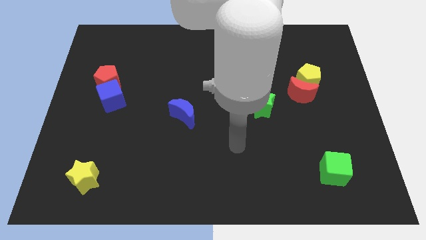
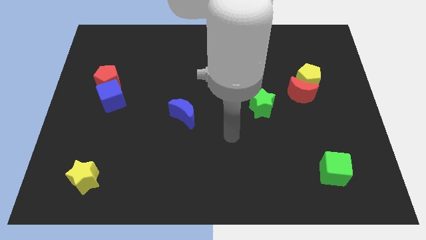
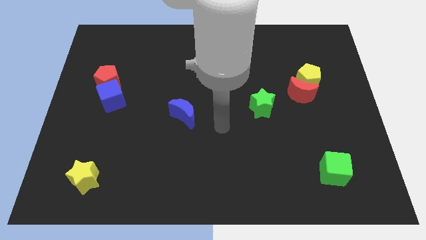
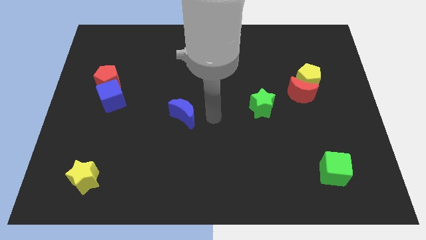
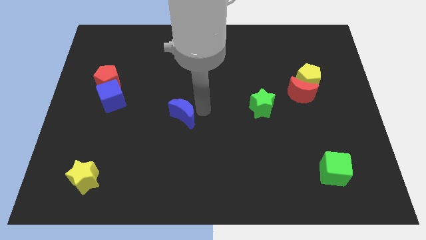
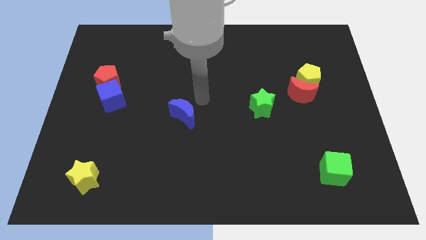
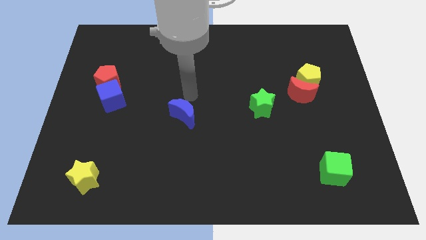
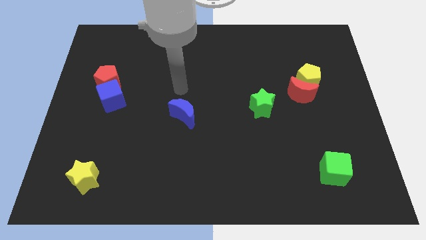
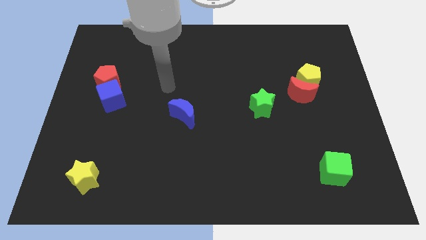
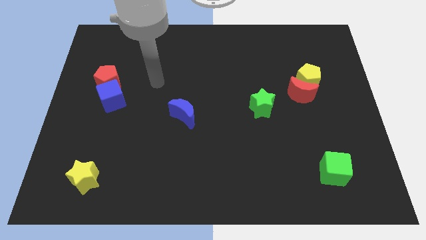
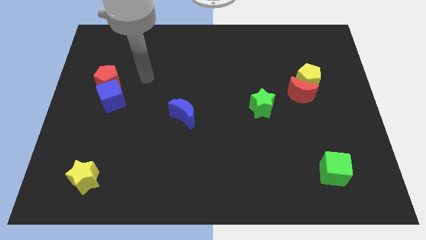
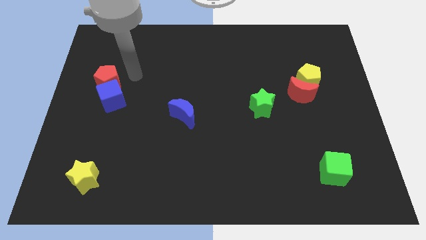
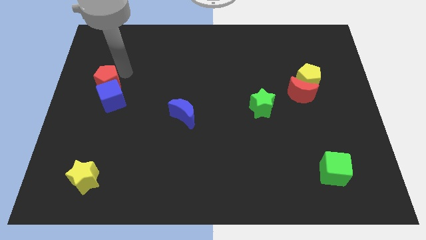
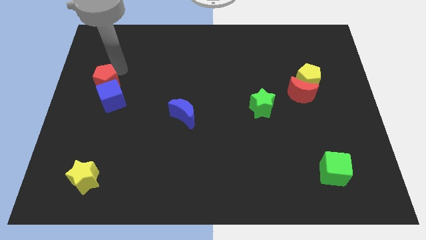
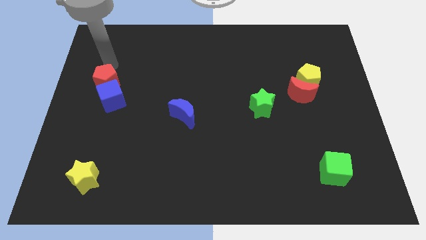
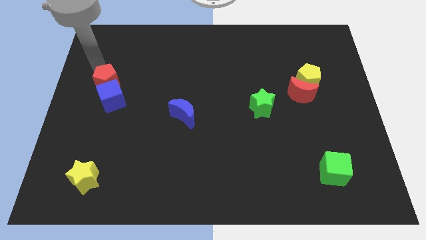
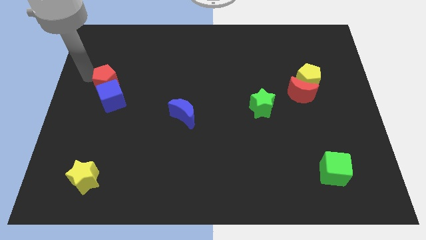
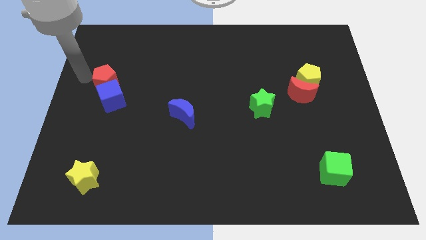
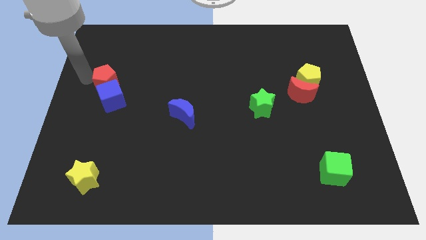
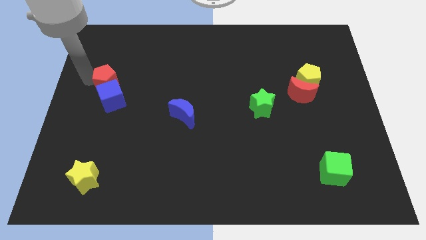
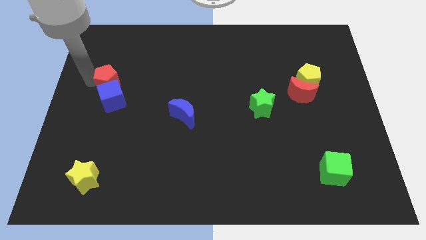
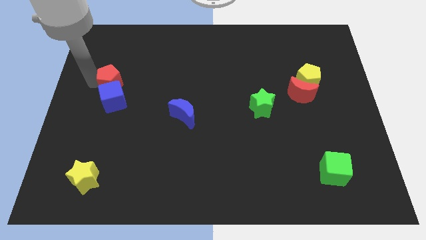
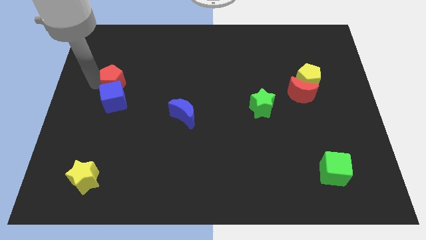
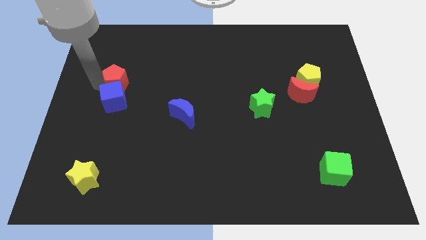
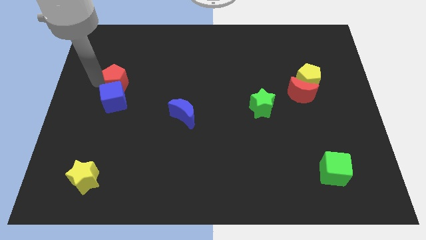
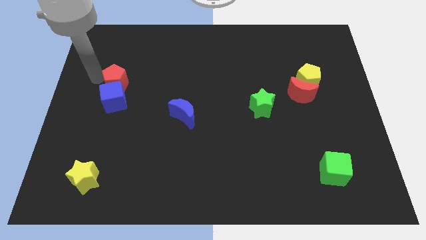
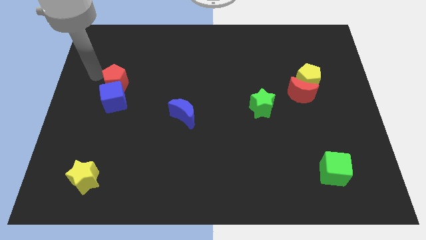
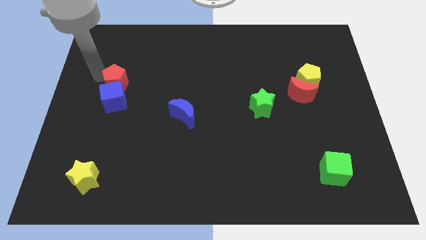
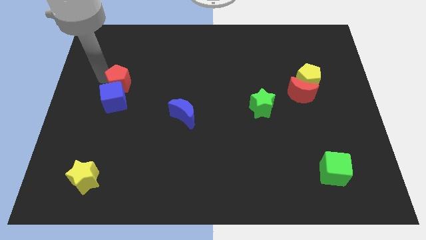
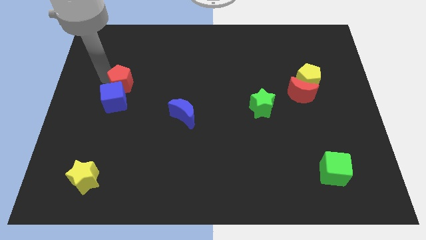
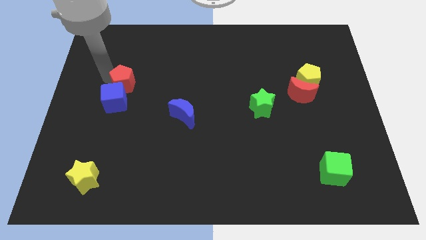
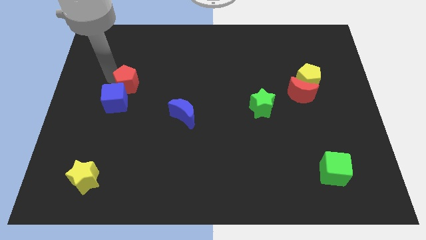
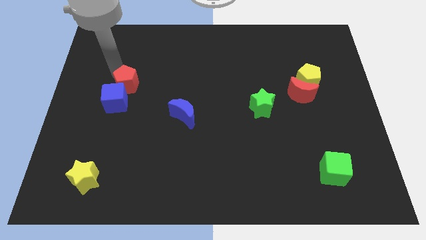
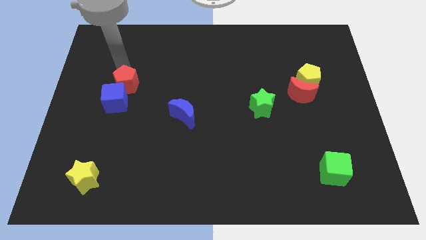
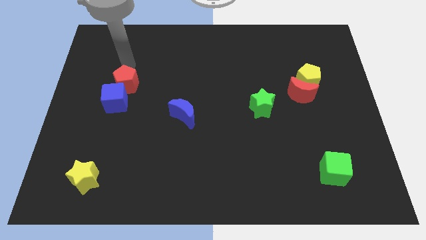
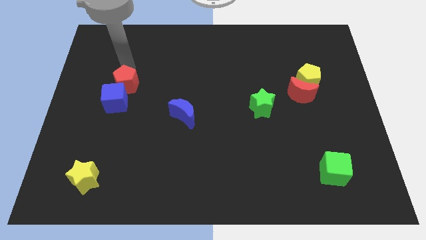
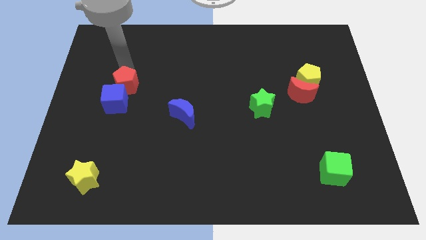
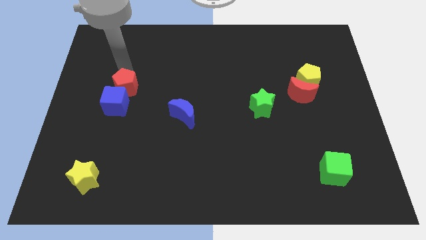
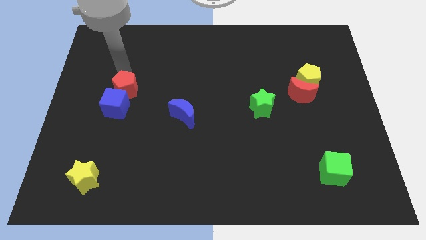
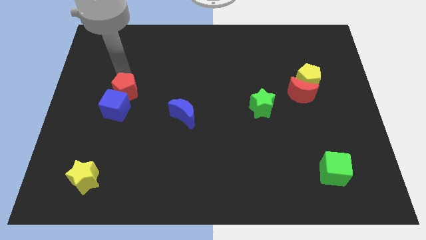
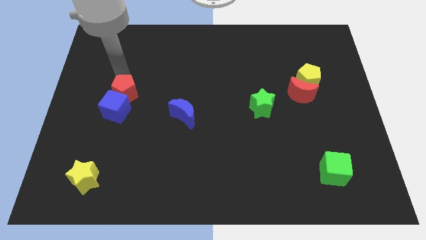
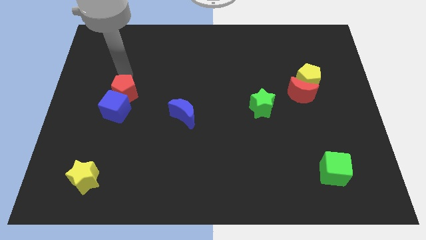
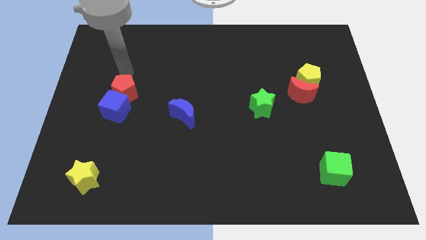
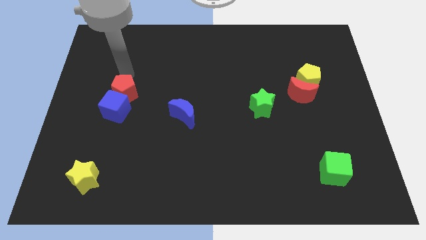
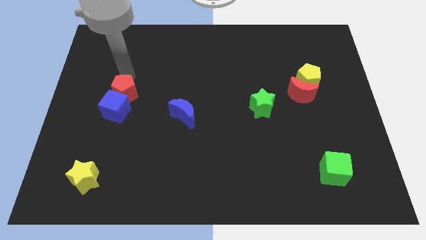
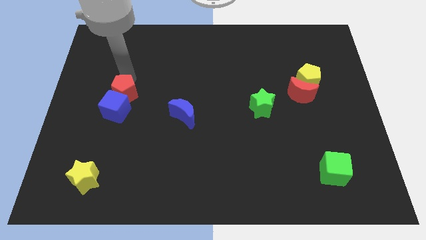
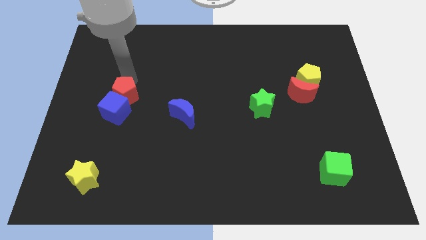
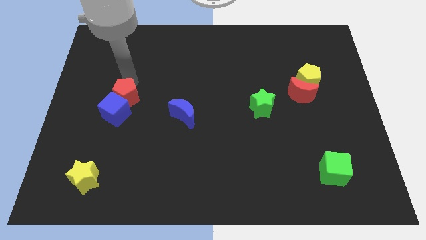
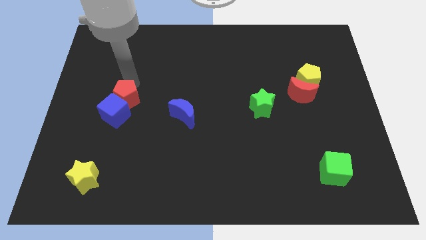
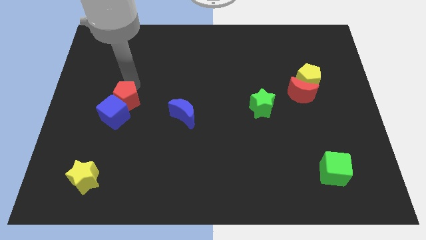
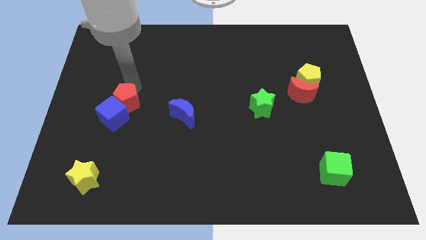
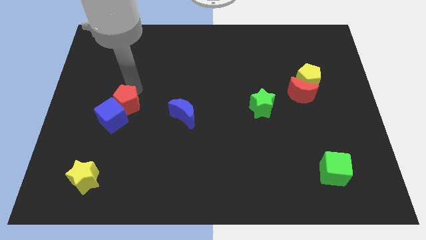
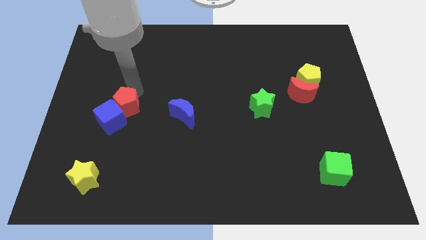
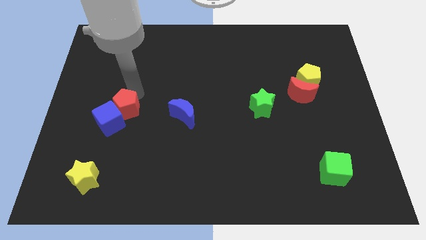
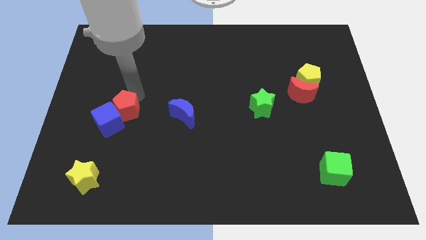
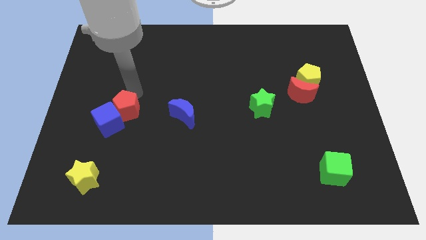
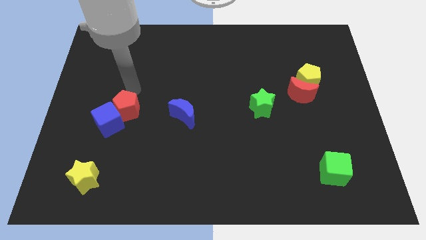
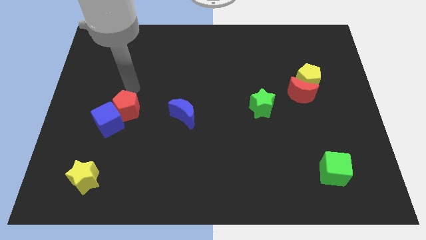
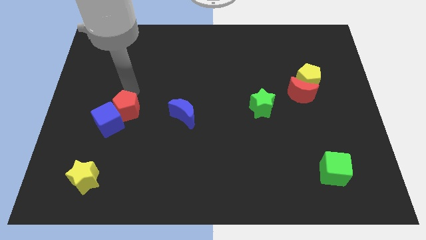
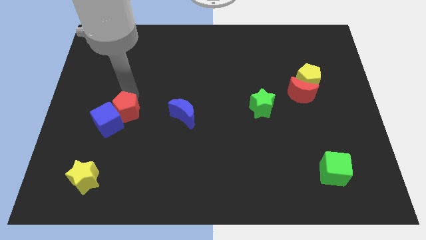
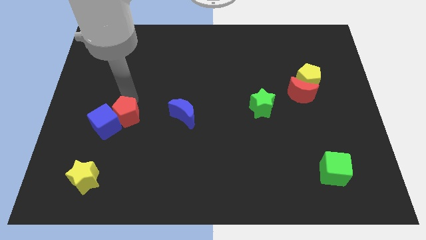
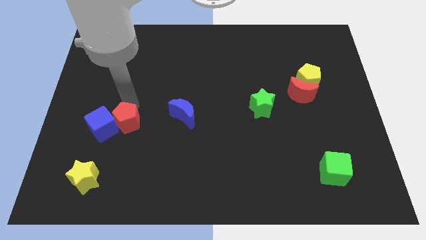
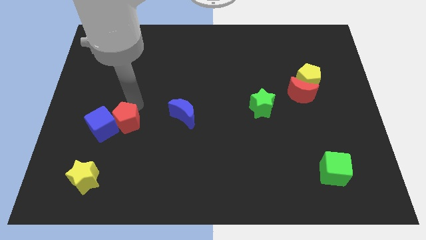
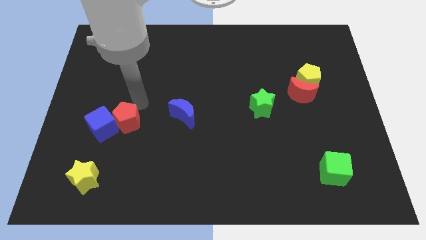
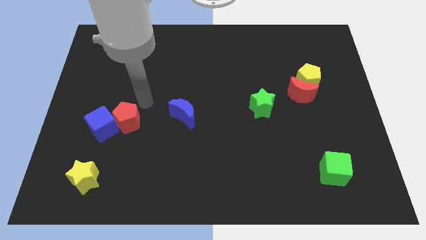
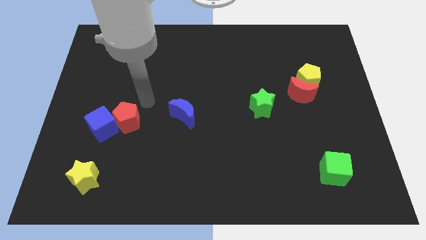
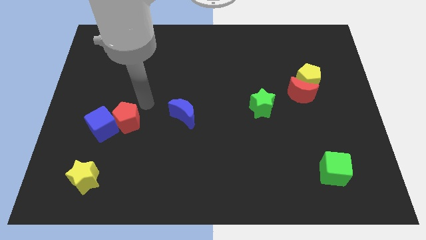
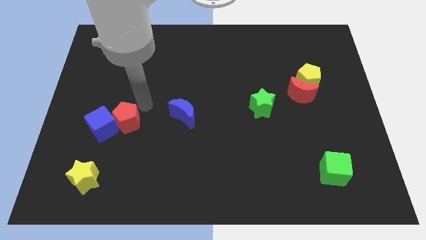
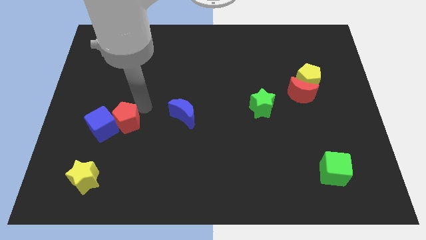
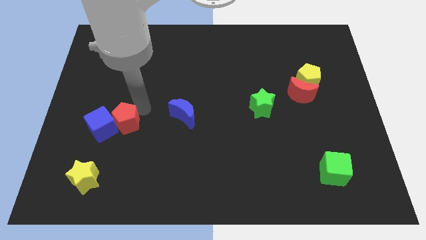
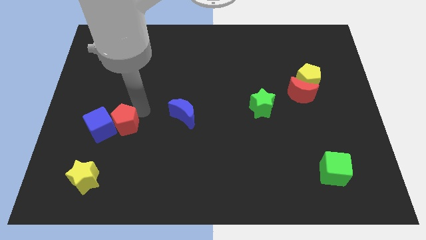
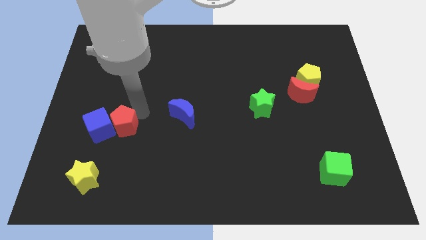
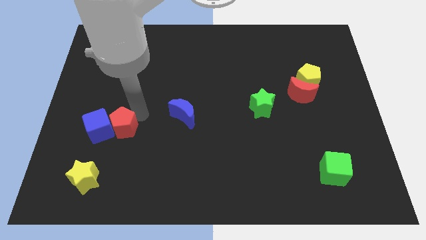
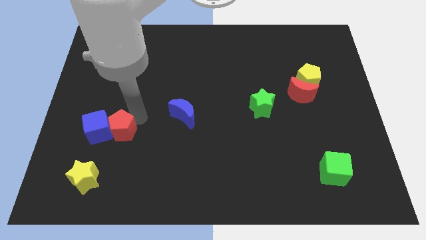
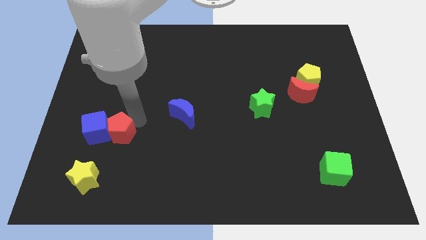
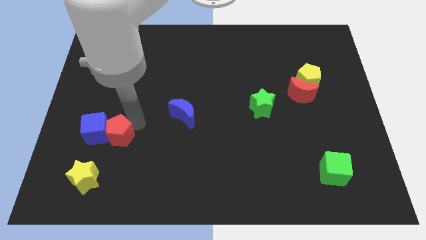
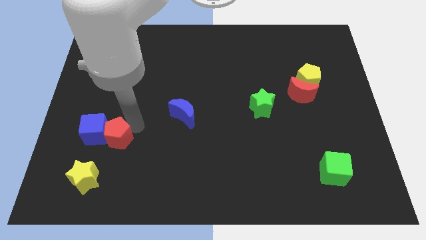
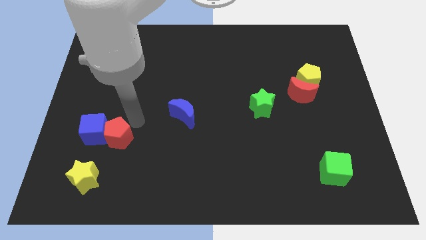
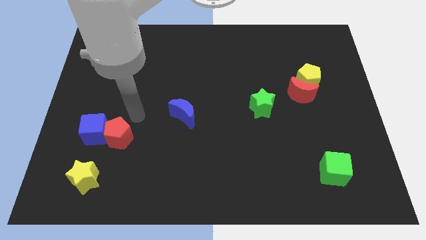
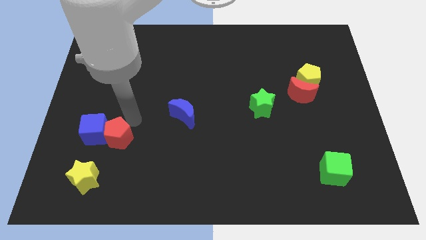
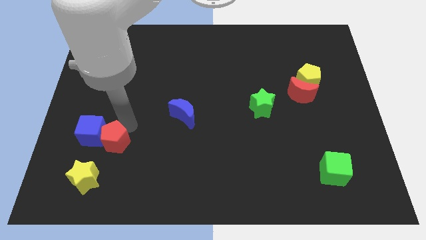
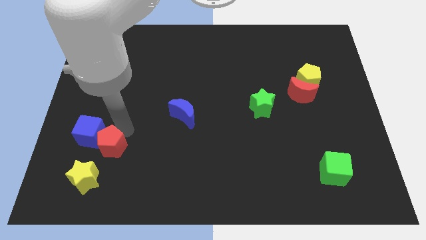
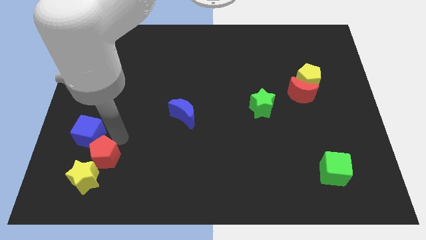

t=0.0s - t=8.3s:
move the red pentagon to the yellow star
